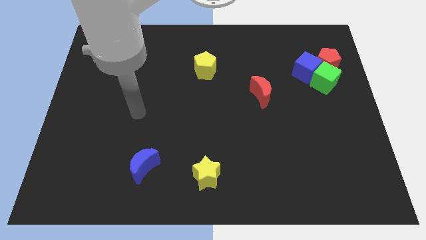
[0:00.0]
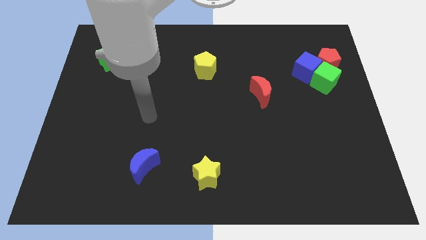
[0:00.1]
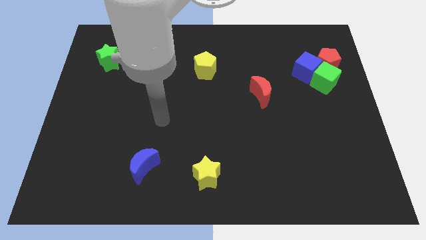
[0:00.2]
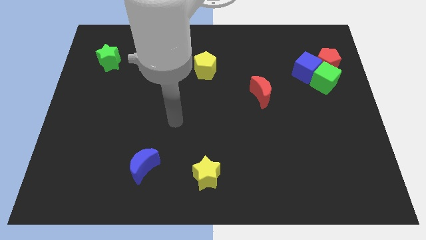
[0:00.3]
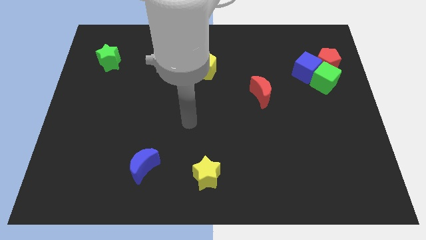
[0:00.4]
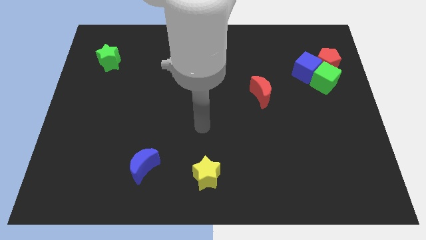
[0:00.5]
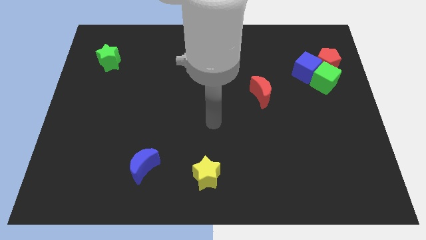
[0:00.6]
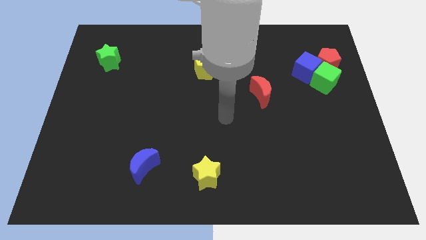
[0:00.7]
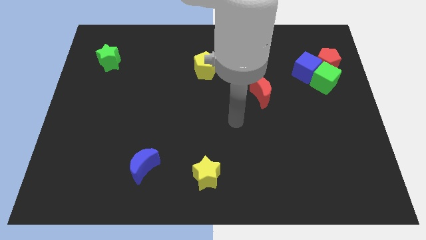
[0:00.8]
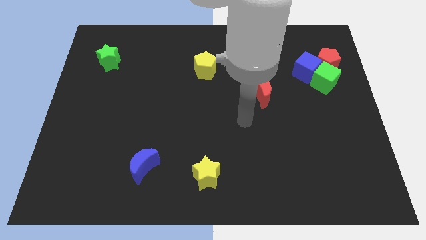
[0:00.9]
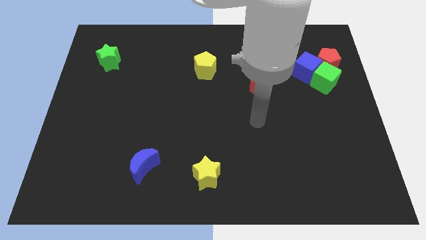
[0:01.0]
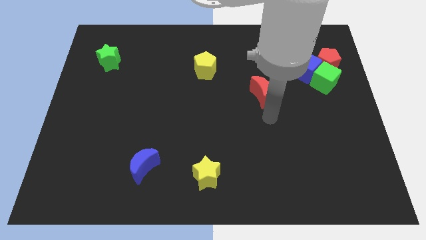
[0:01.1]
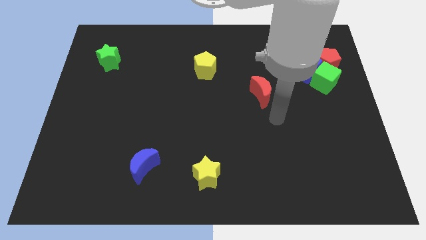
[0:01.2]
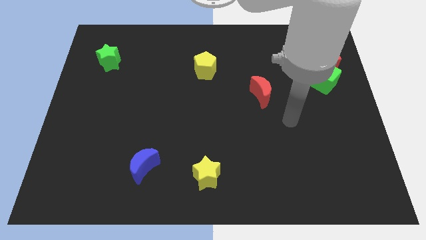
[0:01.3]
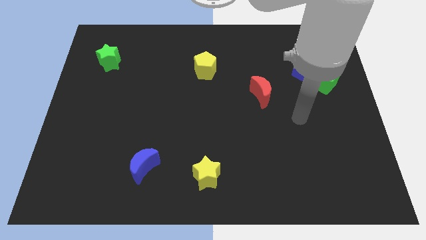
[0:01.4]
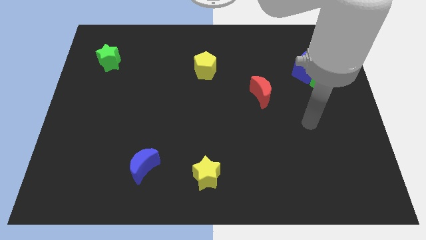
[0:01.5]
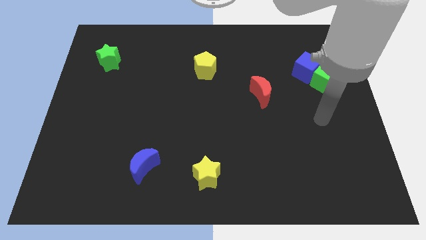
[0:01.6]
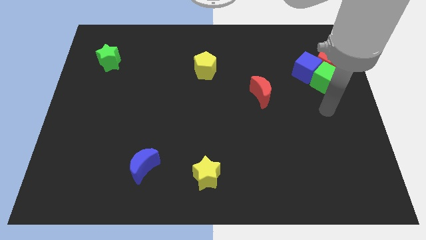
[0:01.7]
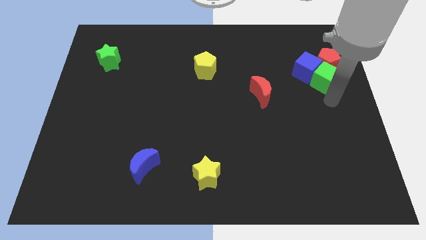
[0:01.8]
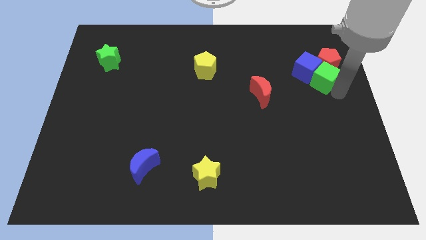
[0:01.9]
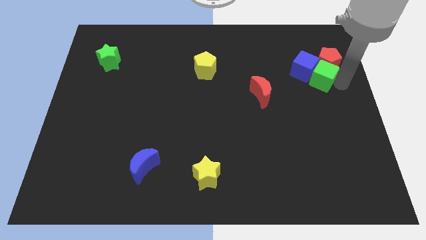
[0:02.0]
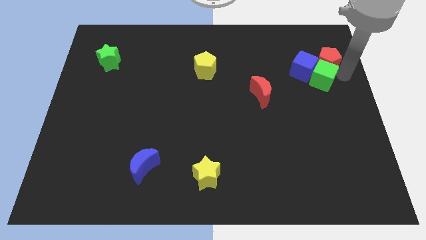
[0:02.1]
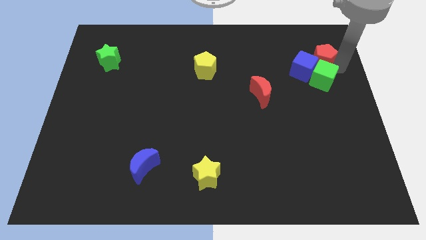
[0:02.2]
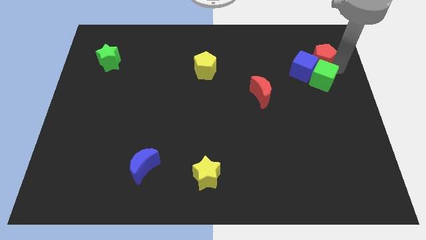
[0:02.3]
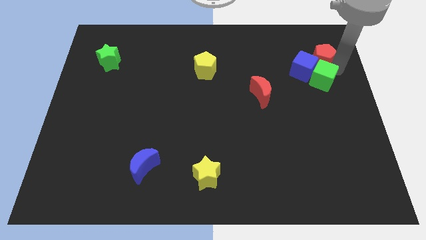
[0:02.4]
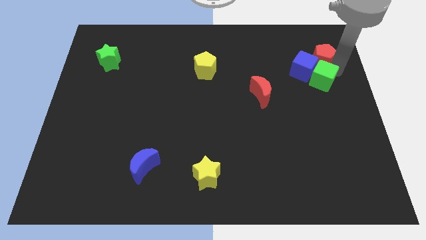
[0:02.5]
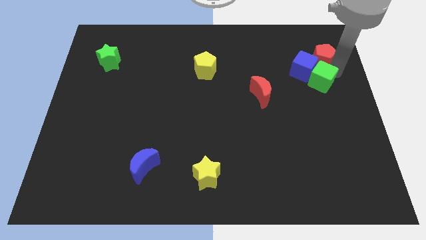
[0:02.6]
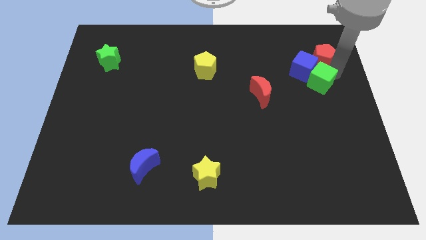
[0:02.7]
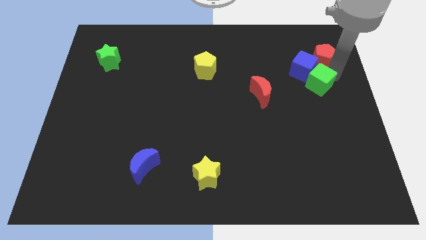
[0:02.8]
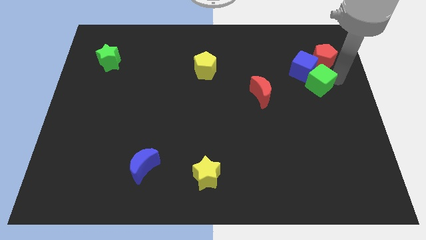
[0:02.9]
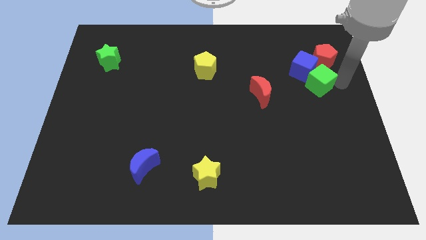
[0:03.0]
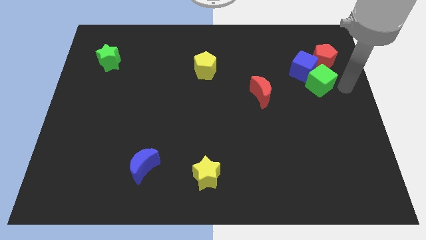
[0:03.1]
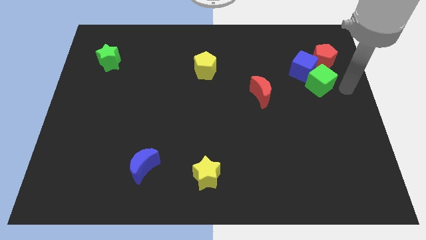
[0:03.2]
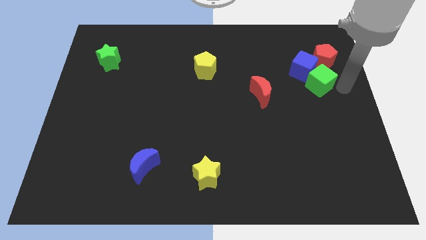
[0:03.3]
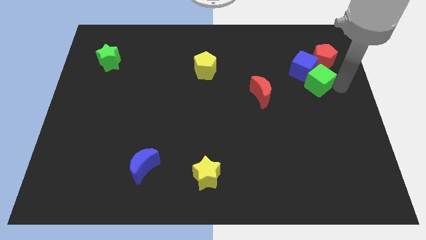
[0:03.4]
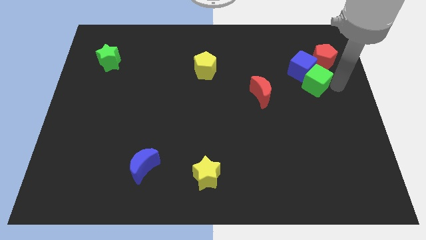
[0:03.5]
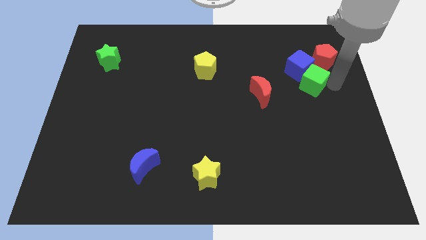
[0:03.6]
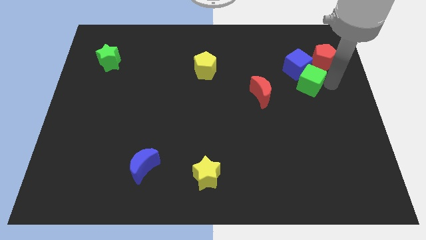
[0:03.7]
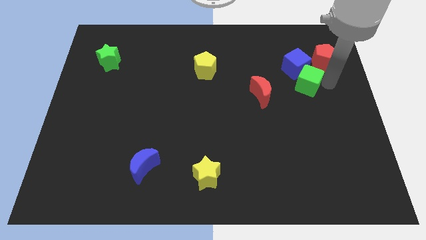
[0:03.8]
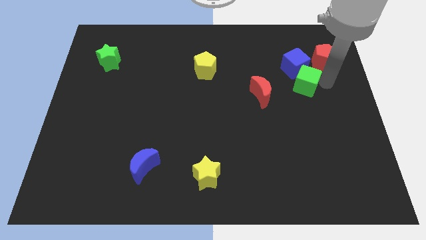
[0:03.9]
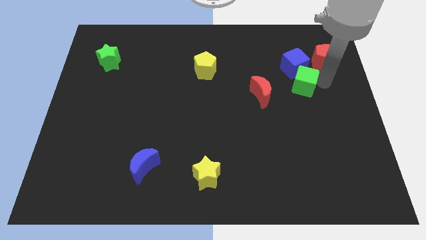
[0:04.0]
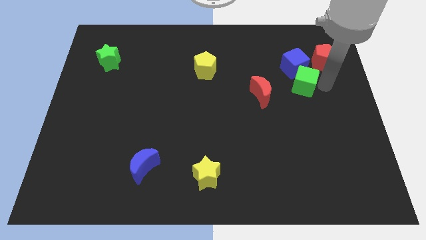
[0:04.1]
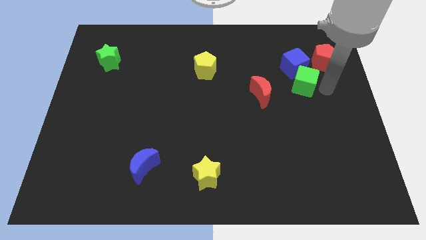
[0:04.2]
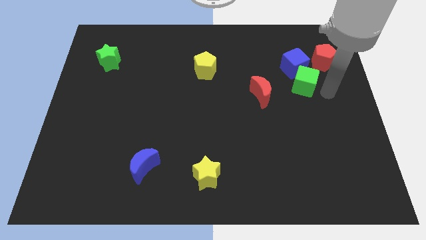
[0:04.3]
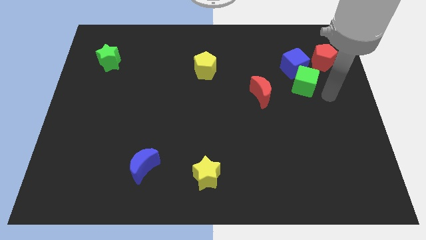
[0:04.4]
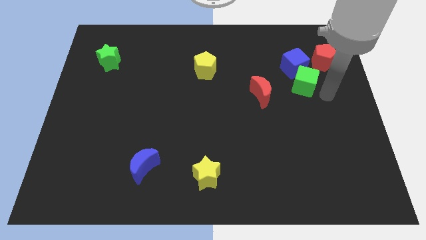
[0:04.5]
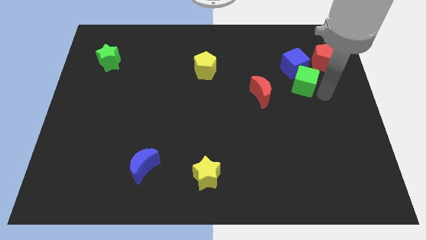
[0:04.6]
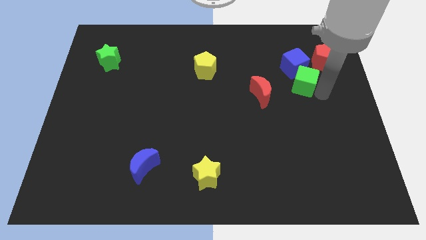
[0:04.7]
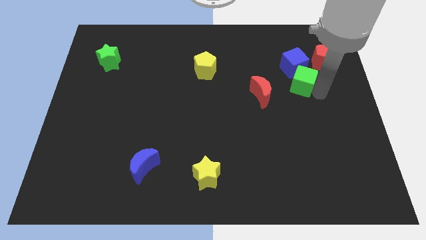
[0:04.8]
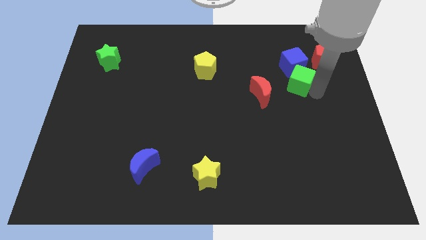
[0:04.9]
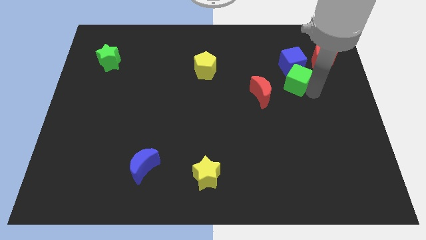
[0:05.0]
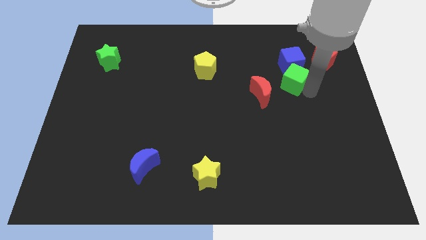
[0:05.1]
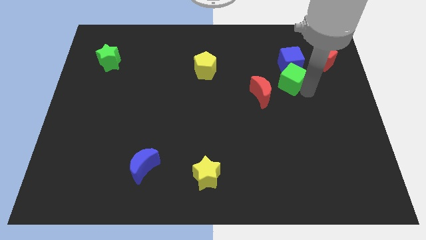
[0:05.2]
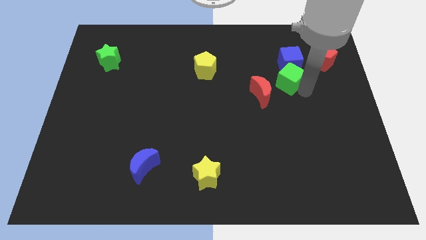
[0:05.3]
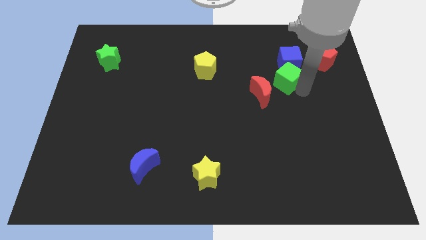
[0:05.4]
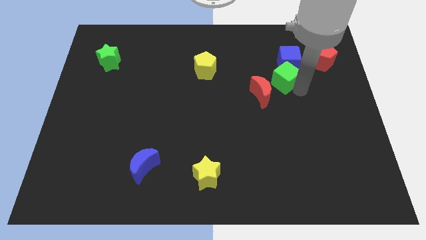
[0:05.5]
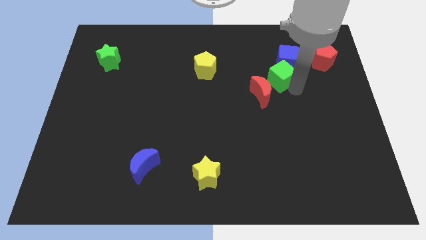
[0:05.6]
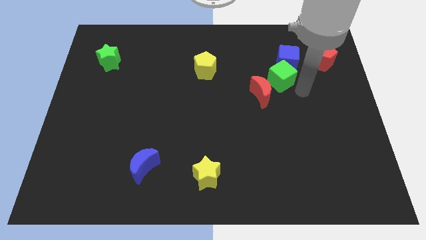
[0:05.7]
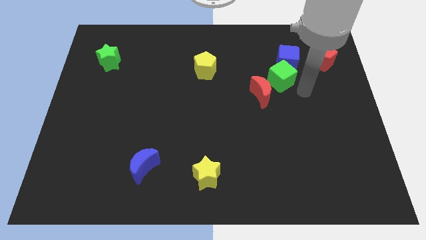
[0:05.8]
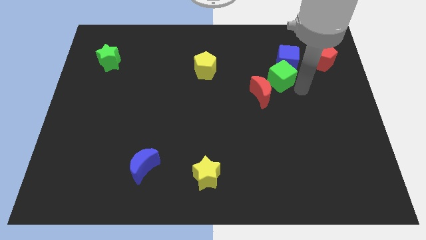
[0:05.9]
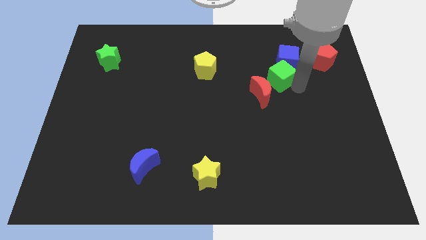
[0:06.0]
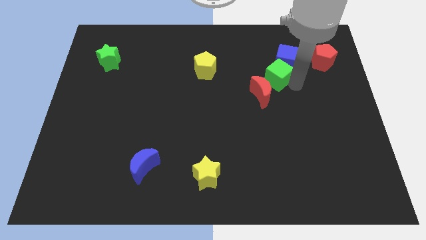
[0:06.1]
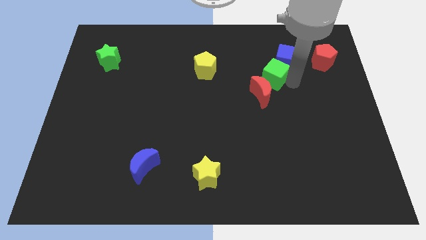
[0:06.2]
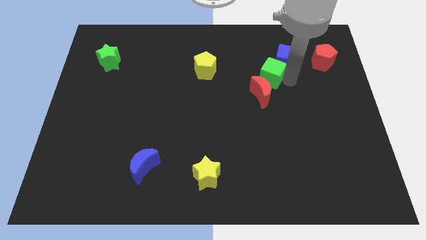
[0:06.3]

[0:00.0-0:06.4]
put the green cube to the left of the blue cube

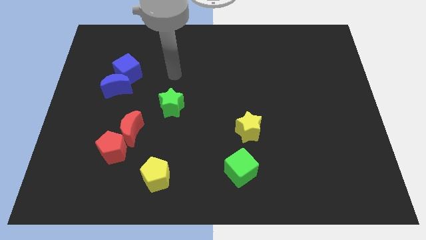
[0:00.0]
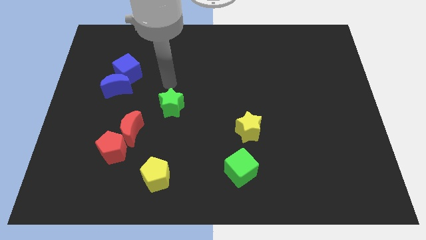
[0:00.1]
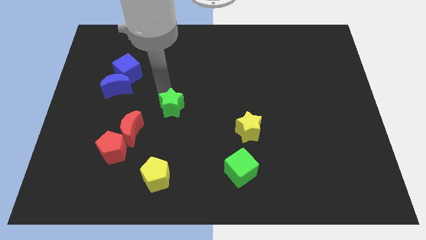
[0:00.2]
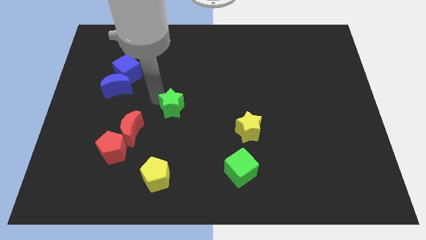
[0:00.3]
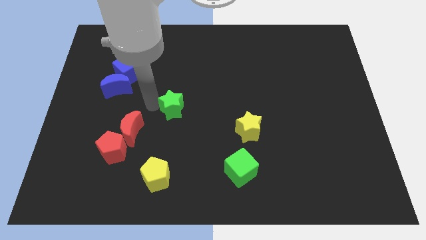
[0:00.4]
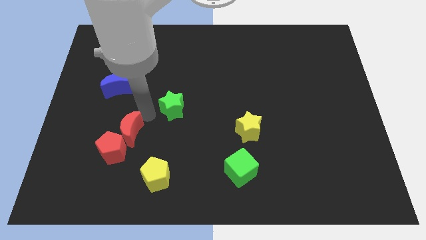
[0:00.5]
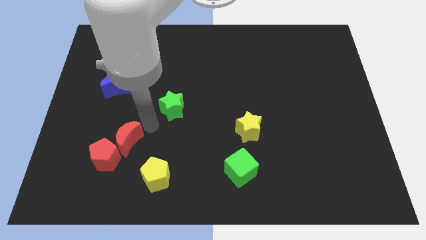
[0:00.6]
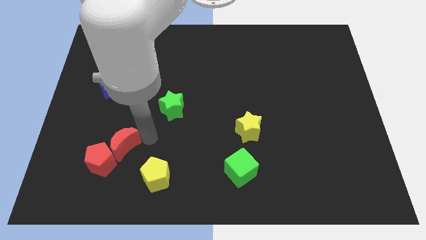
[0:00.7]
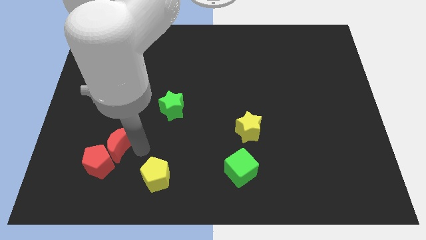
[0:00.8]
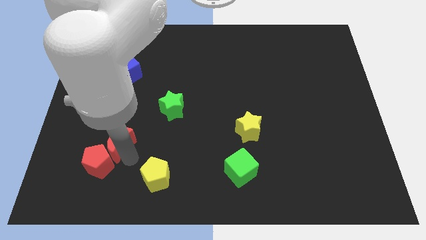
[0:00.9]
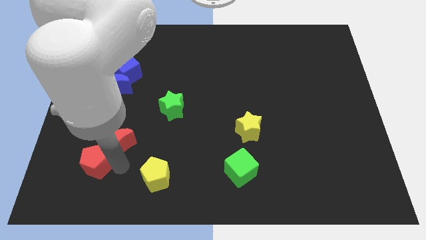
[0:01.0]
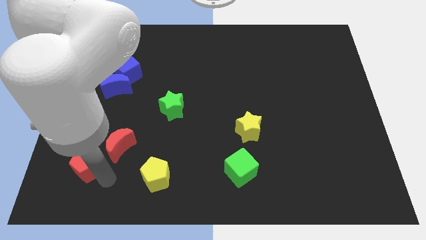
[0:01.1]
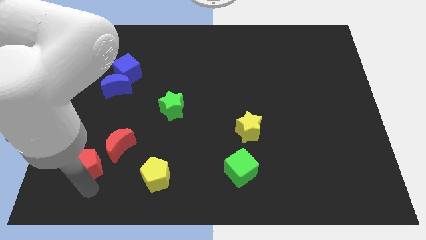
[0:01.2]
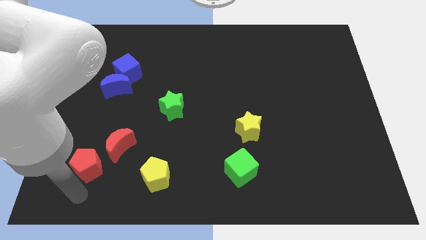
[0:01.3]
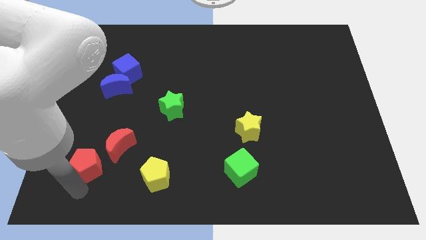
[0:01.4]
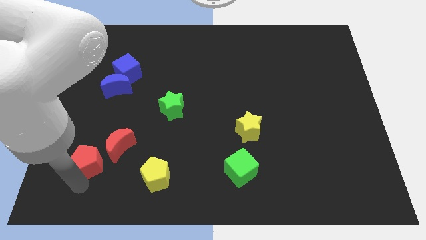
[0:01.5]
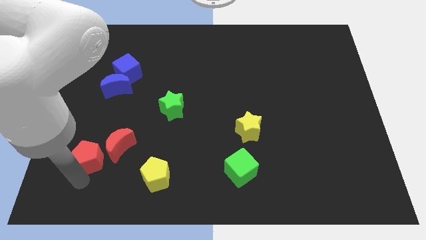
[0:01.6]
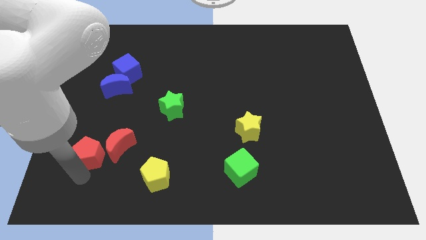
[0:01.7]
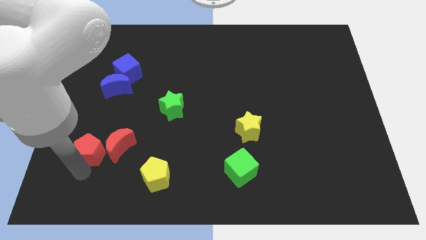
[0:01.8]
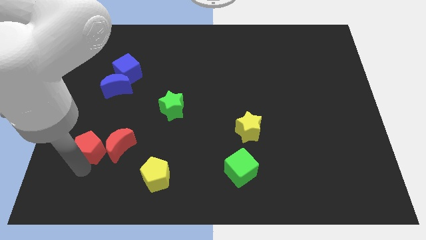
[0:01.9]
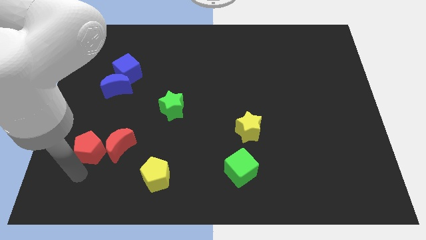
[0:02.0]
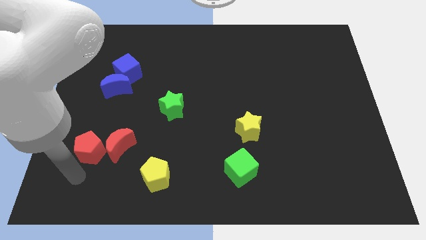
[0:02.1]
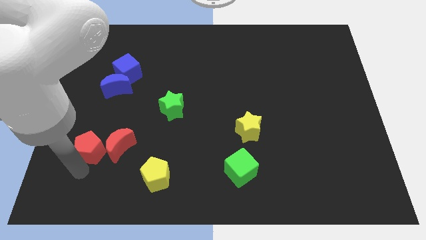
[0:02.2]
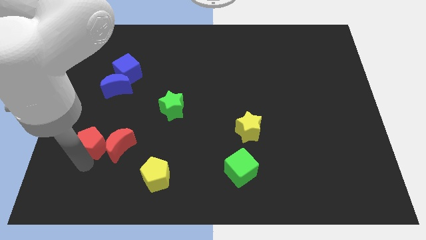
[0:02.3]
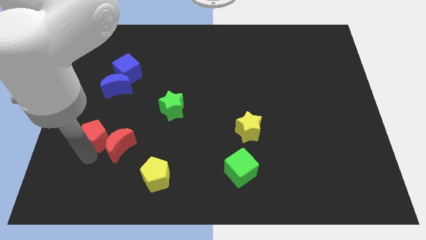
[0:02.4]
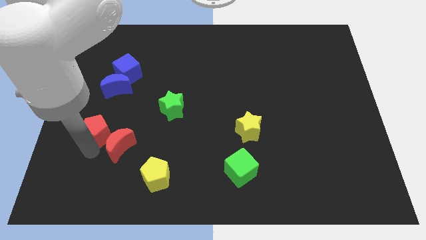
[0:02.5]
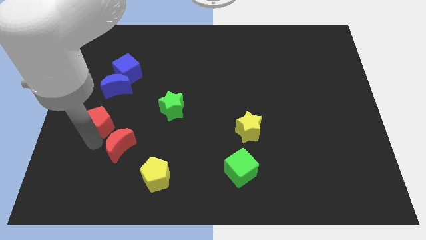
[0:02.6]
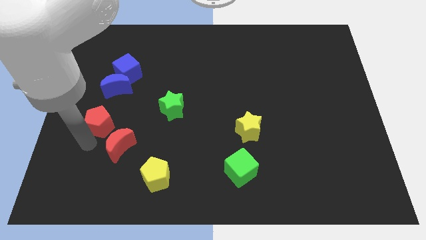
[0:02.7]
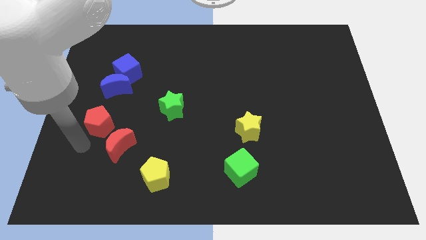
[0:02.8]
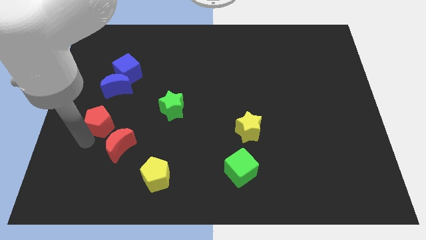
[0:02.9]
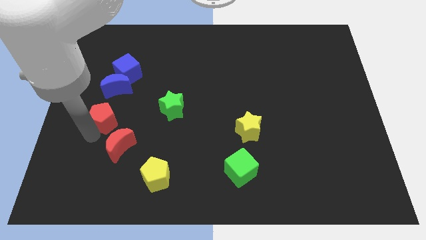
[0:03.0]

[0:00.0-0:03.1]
slide the red pentagon to the bottom side of the blue cube
